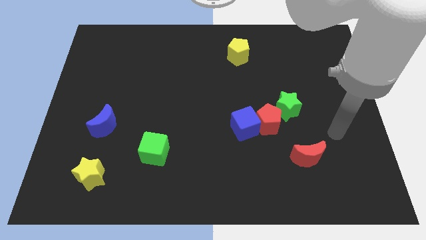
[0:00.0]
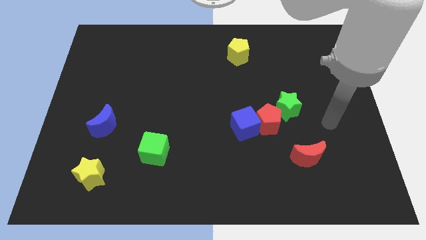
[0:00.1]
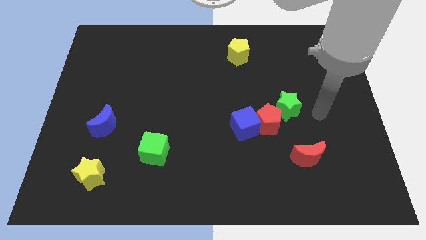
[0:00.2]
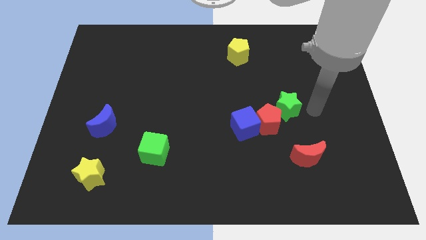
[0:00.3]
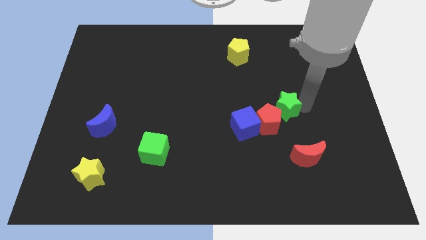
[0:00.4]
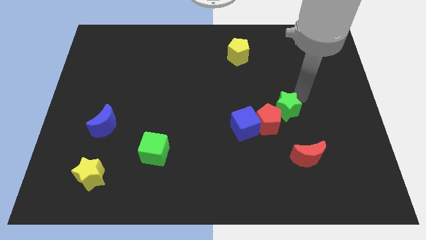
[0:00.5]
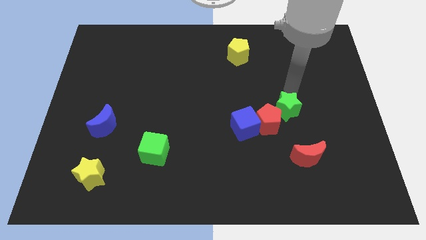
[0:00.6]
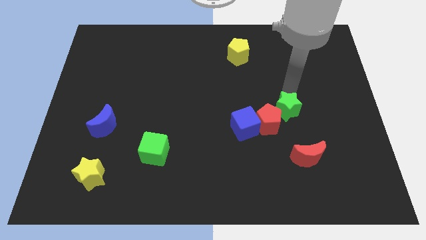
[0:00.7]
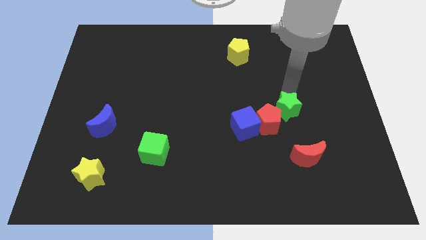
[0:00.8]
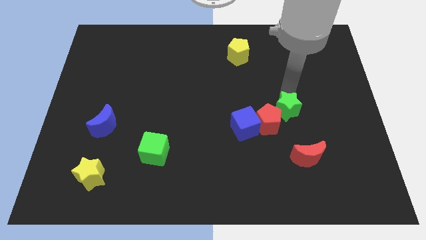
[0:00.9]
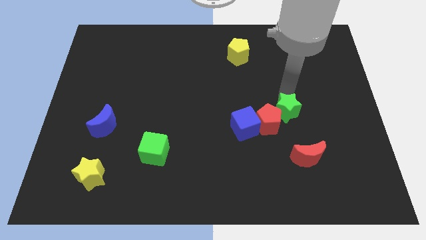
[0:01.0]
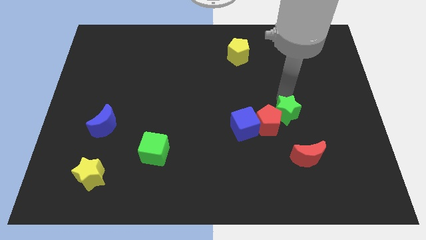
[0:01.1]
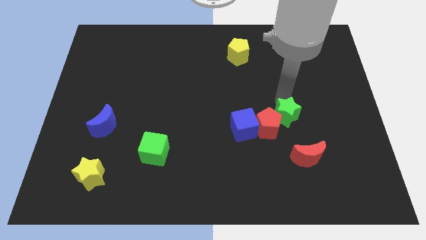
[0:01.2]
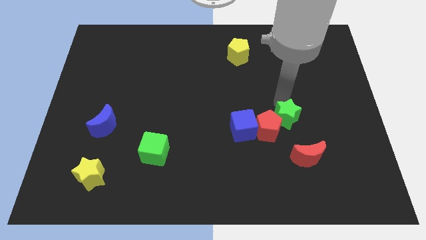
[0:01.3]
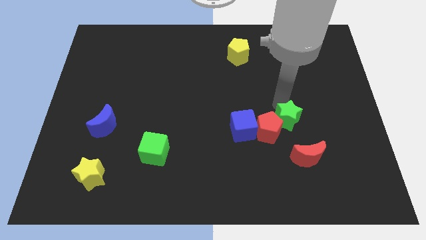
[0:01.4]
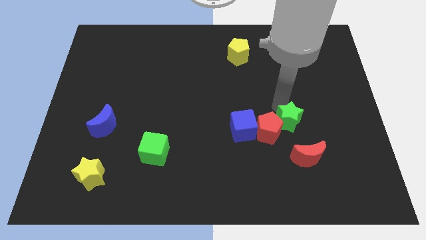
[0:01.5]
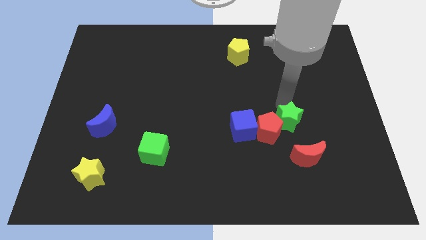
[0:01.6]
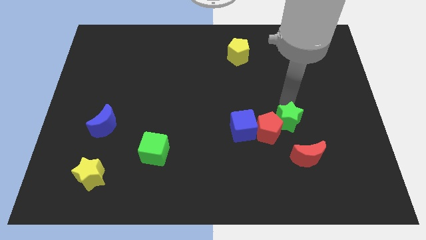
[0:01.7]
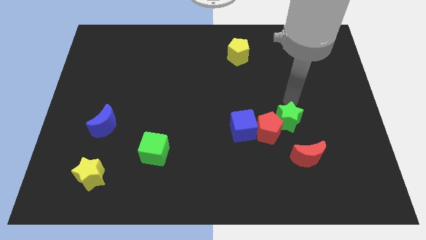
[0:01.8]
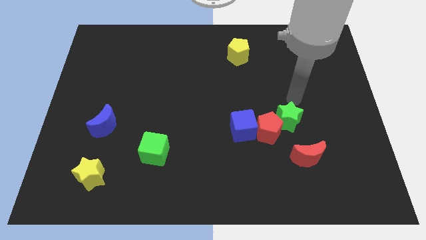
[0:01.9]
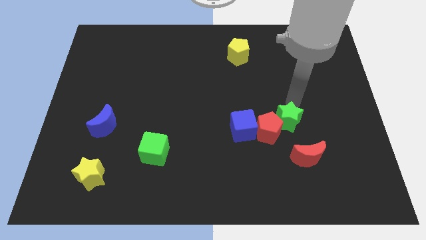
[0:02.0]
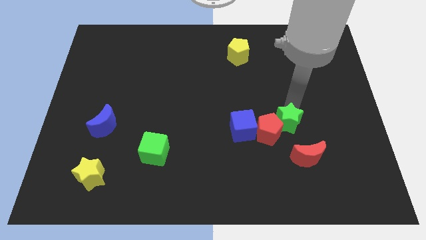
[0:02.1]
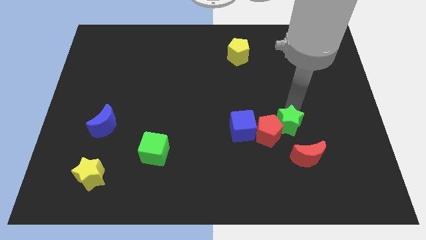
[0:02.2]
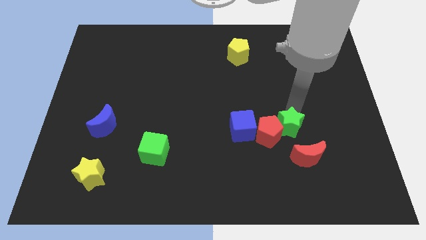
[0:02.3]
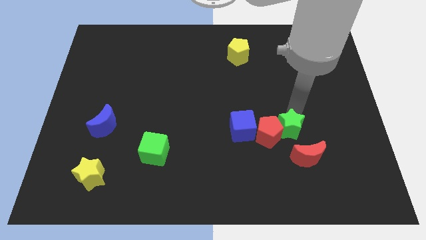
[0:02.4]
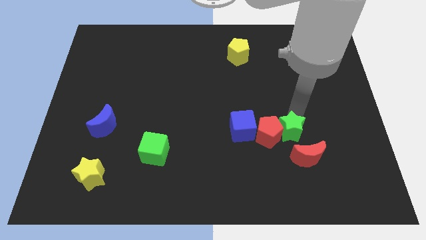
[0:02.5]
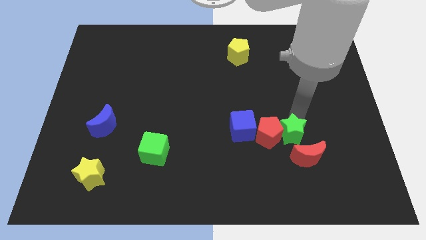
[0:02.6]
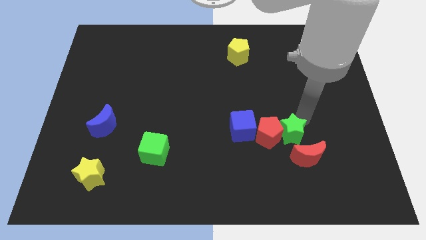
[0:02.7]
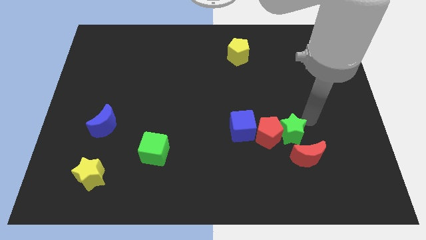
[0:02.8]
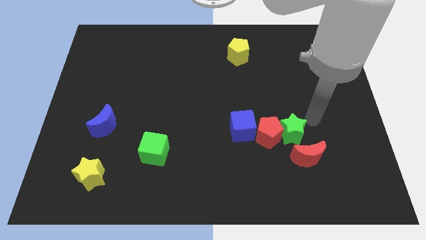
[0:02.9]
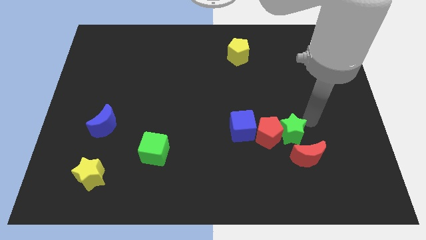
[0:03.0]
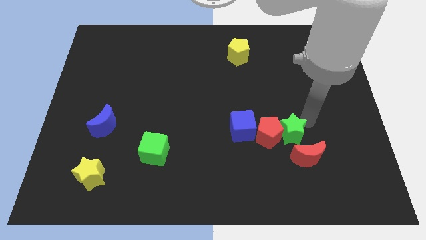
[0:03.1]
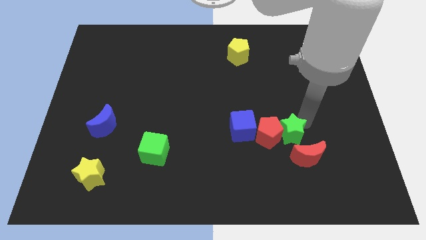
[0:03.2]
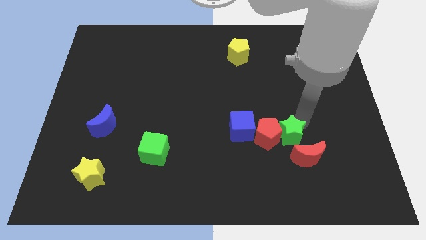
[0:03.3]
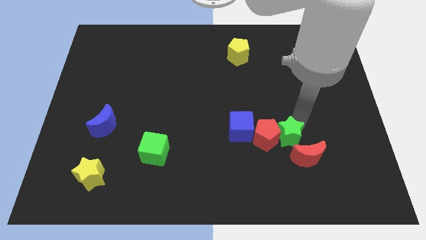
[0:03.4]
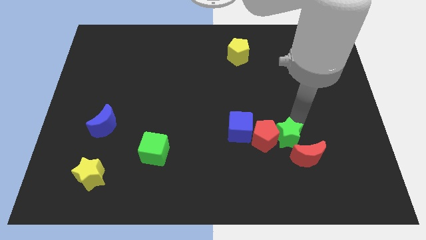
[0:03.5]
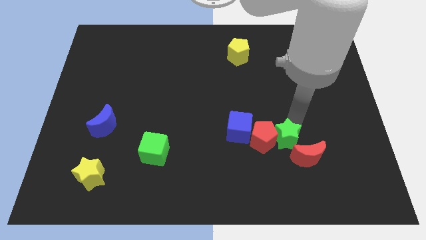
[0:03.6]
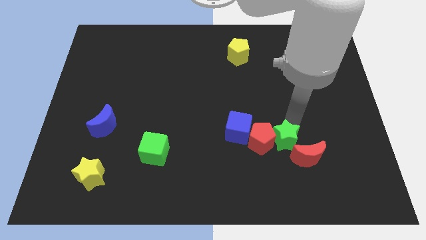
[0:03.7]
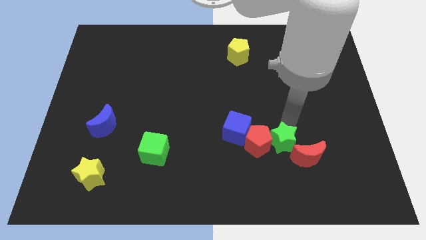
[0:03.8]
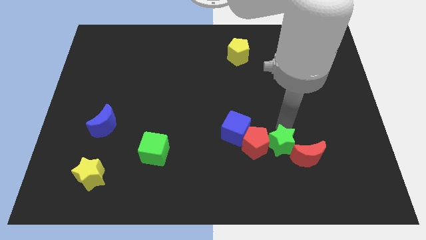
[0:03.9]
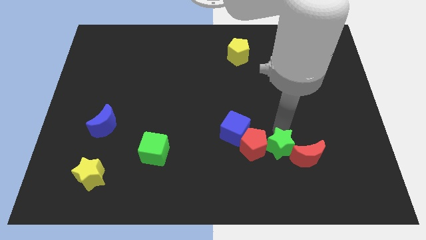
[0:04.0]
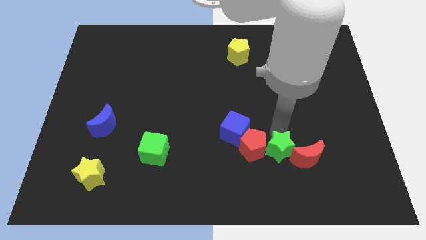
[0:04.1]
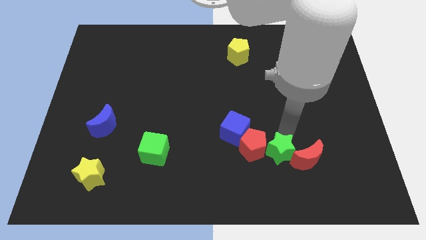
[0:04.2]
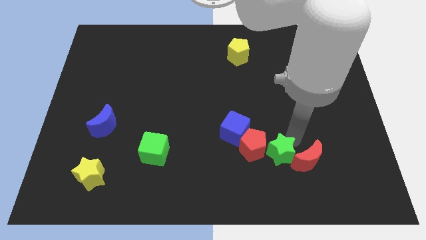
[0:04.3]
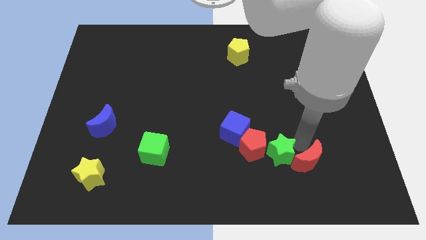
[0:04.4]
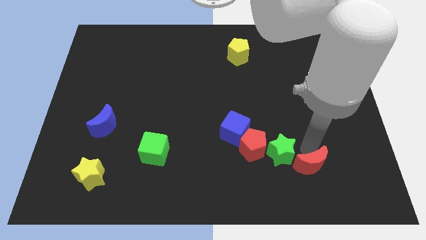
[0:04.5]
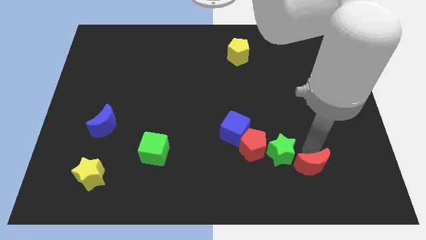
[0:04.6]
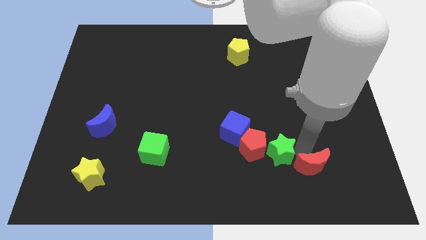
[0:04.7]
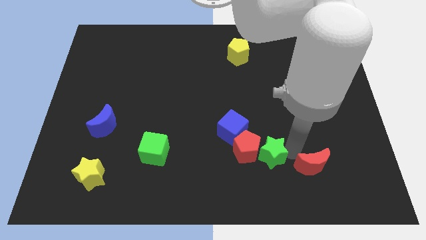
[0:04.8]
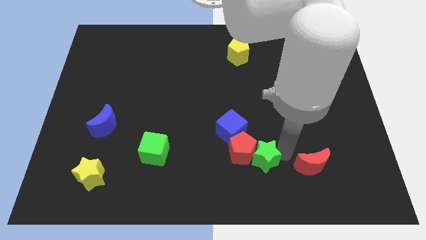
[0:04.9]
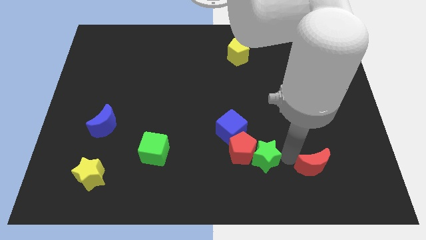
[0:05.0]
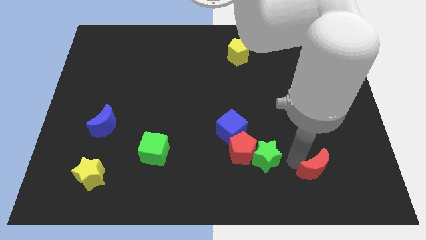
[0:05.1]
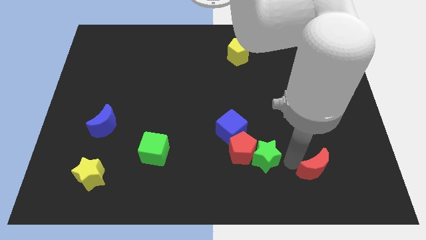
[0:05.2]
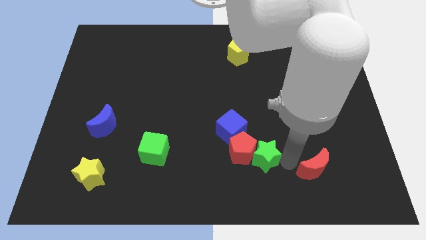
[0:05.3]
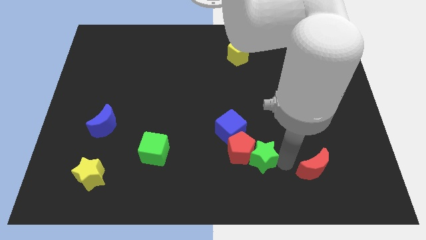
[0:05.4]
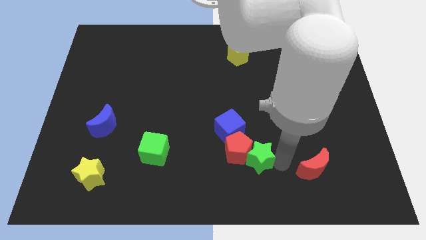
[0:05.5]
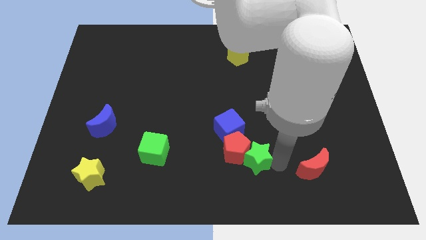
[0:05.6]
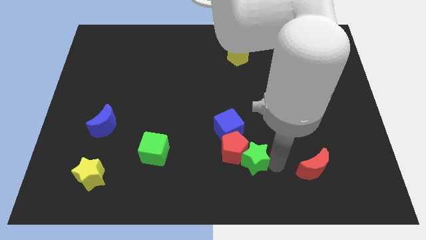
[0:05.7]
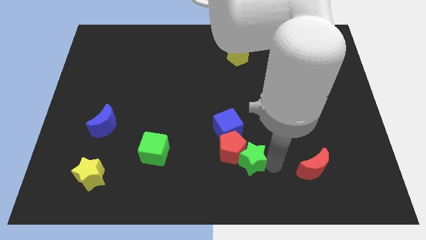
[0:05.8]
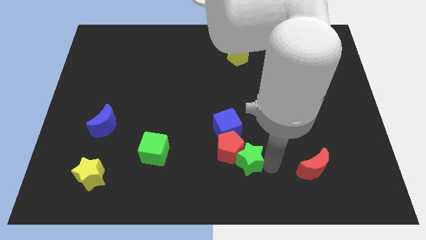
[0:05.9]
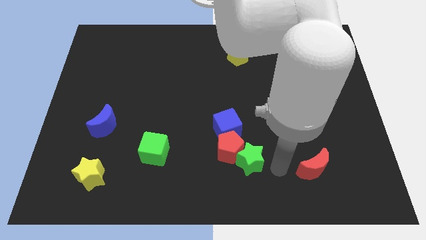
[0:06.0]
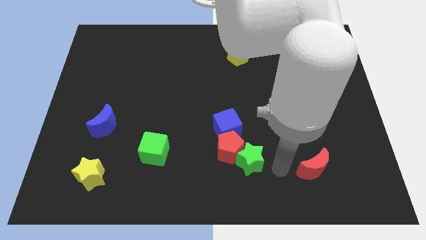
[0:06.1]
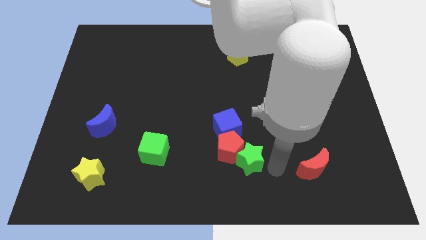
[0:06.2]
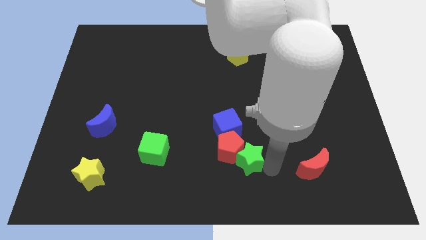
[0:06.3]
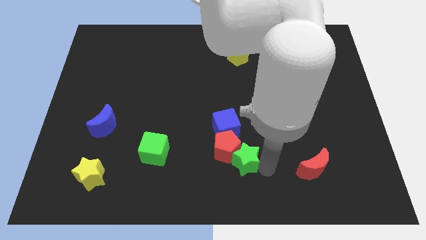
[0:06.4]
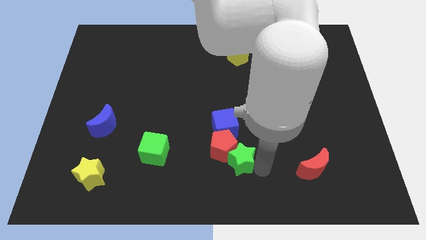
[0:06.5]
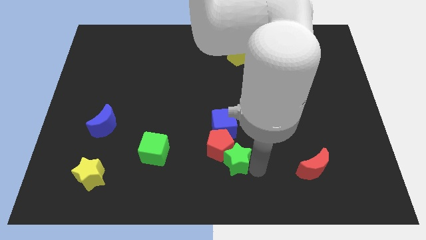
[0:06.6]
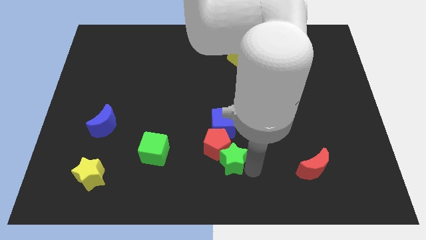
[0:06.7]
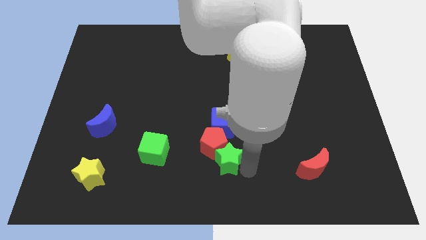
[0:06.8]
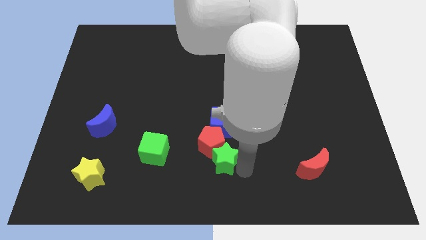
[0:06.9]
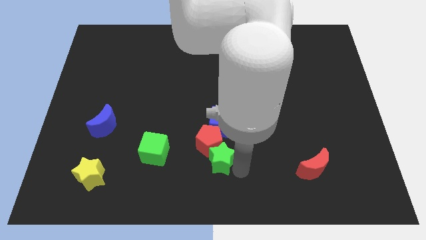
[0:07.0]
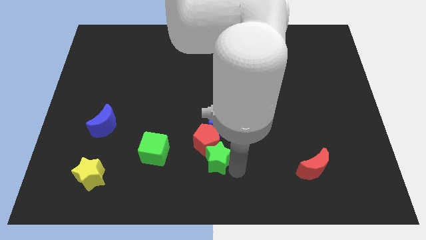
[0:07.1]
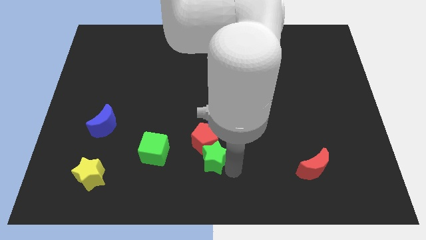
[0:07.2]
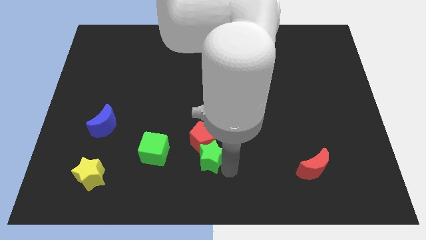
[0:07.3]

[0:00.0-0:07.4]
slide the green star to the bottom left of the blue cube
